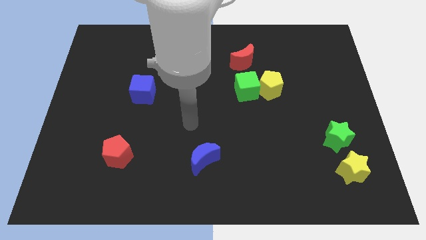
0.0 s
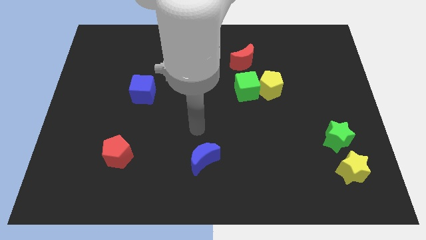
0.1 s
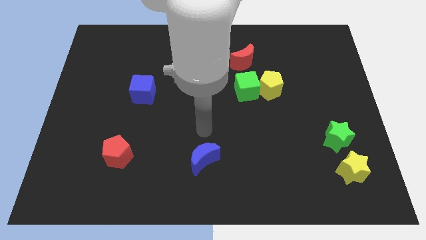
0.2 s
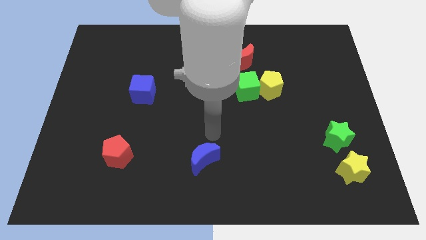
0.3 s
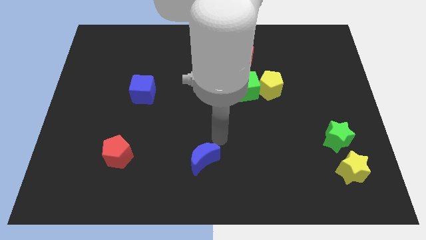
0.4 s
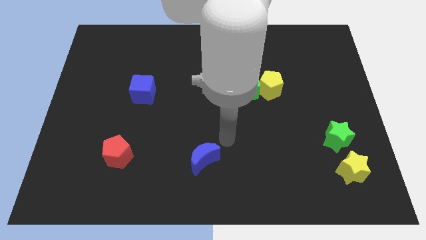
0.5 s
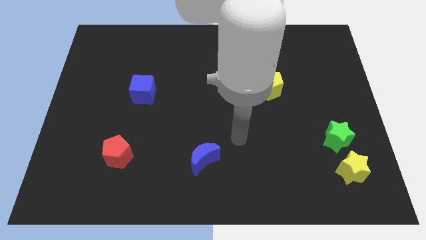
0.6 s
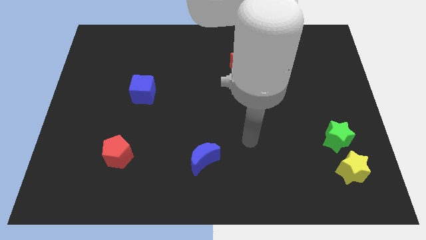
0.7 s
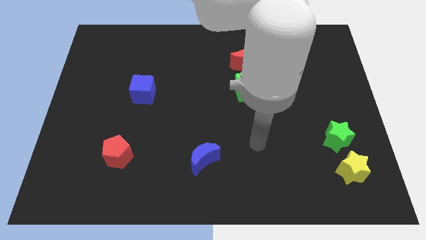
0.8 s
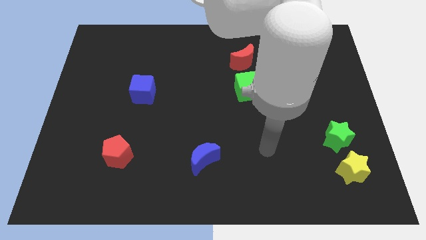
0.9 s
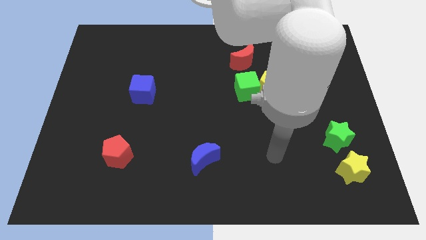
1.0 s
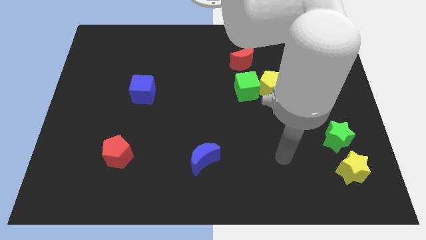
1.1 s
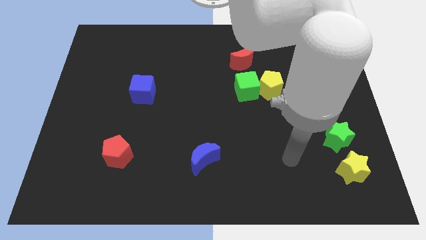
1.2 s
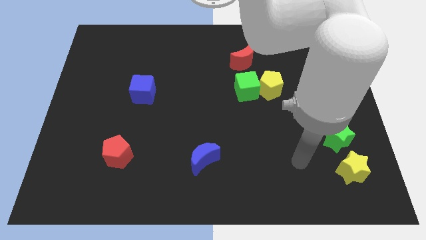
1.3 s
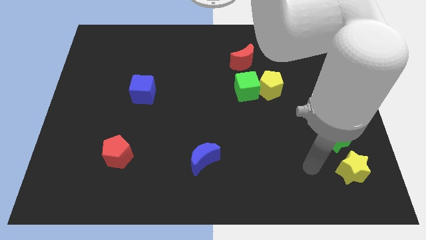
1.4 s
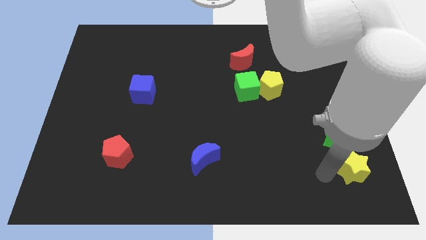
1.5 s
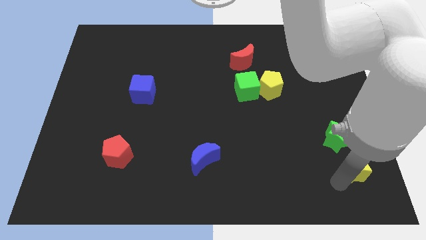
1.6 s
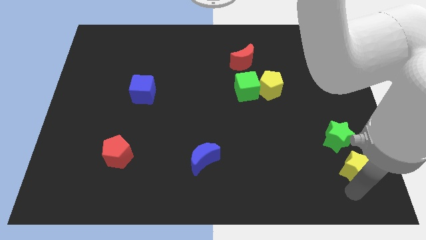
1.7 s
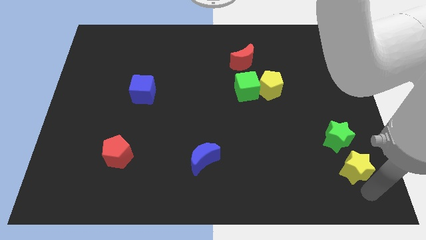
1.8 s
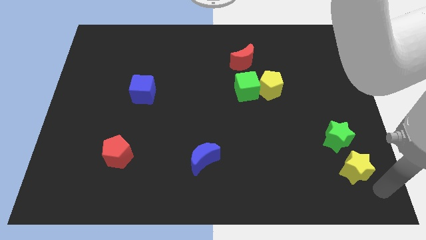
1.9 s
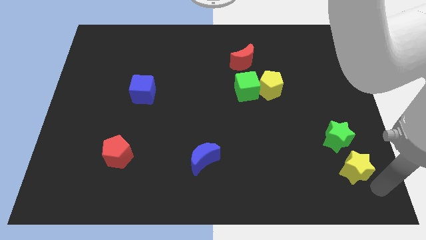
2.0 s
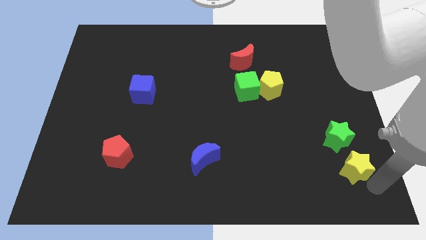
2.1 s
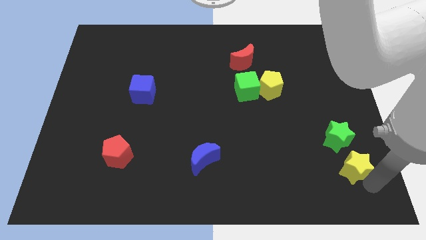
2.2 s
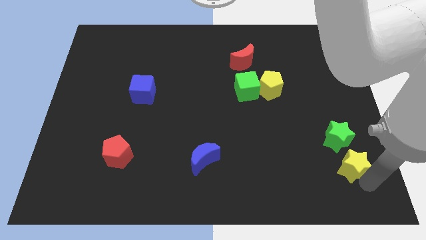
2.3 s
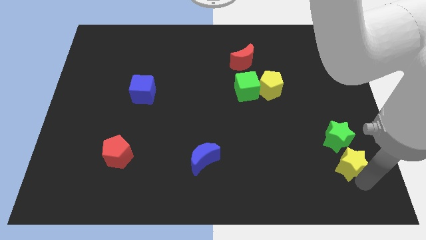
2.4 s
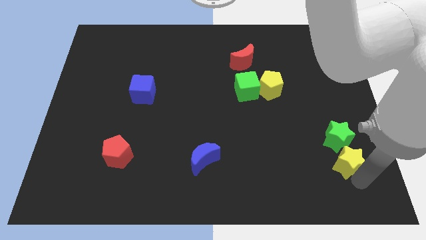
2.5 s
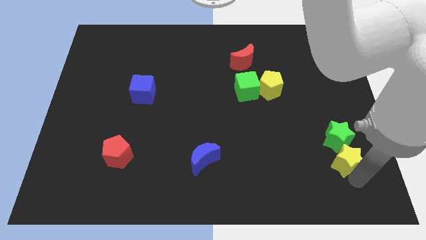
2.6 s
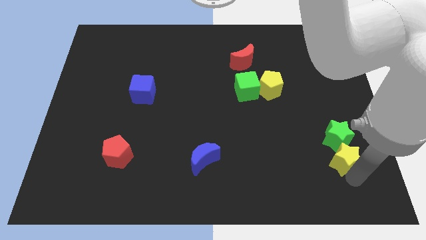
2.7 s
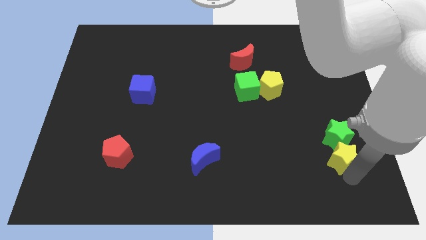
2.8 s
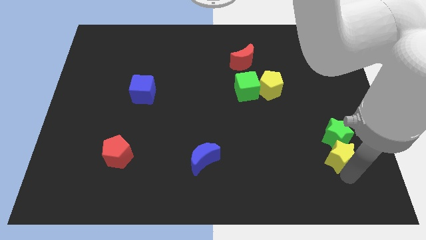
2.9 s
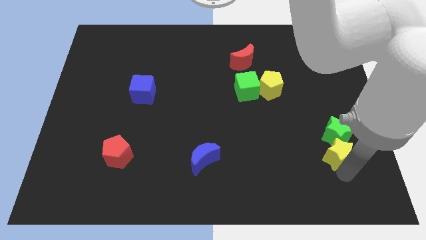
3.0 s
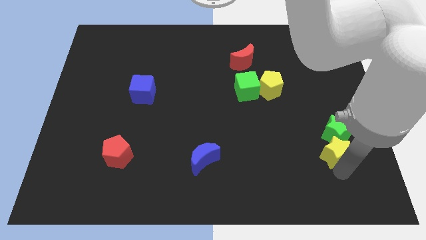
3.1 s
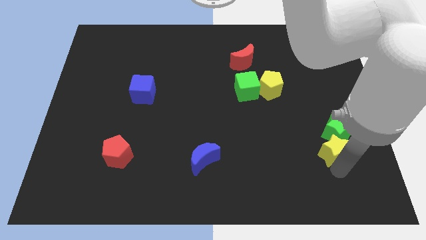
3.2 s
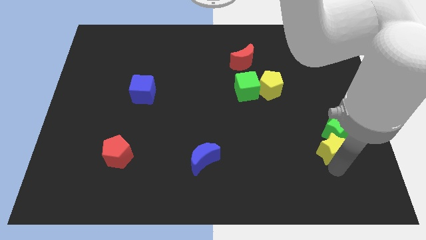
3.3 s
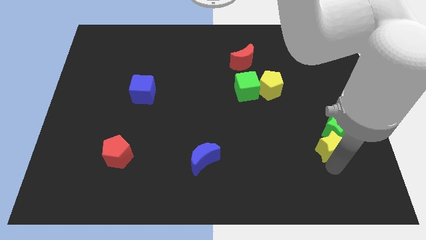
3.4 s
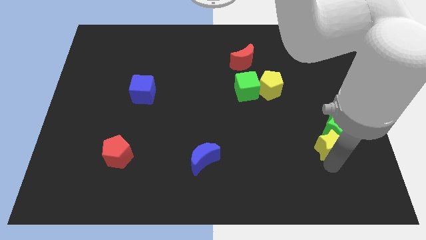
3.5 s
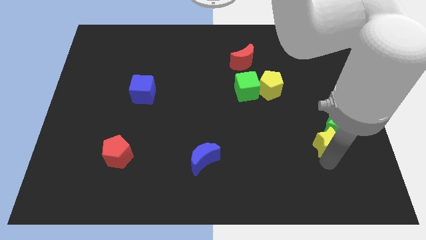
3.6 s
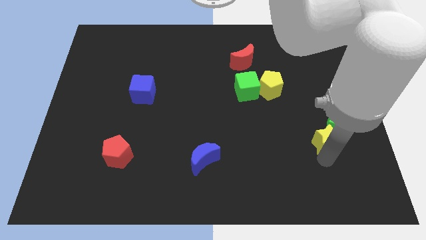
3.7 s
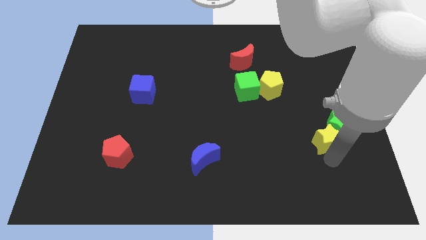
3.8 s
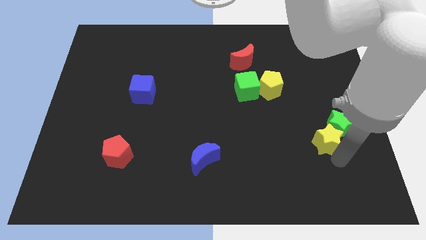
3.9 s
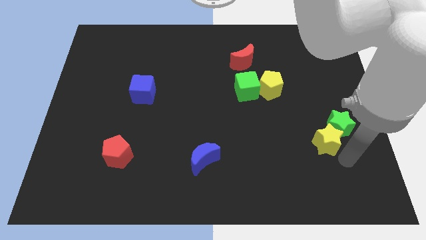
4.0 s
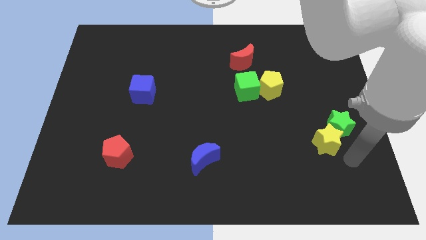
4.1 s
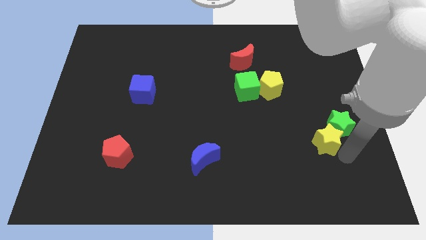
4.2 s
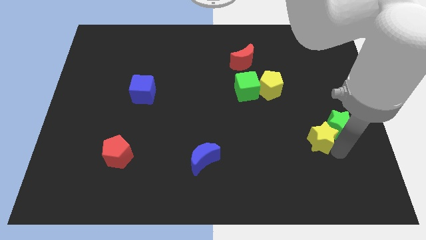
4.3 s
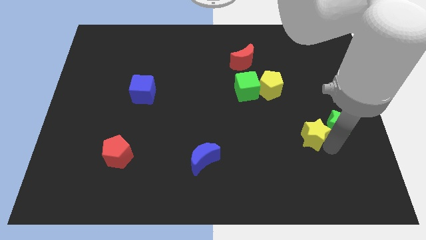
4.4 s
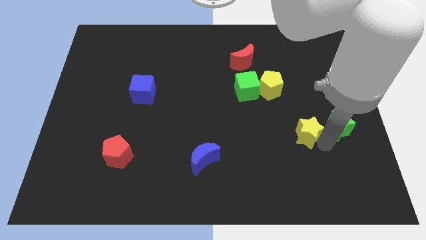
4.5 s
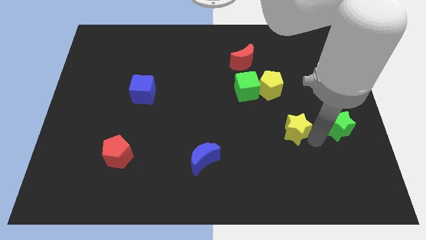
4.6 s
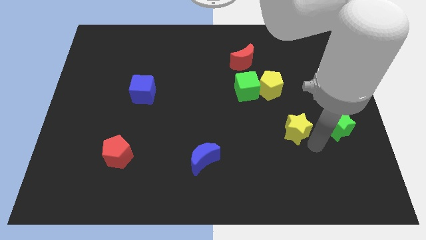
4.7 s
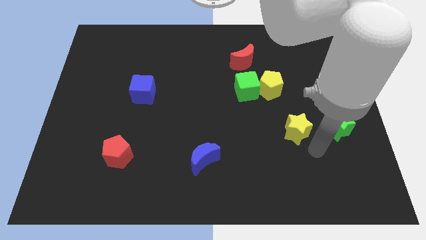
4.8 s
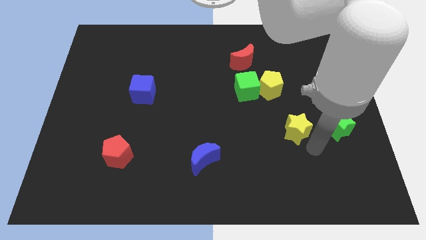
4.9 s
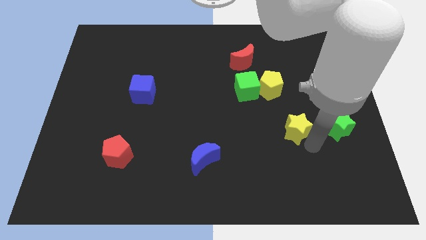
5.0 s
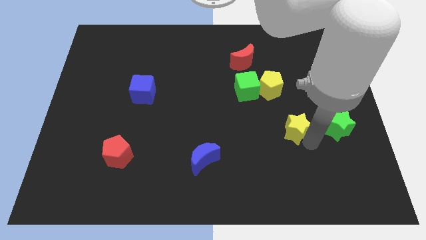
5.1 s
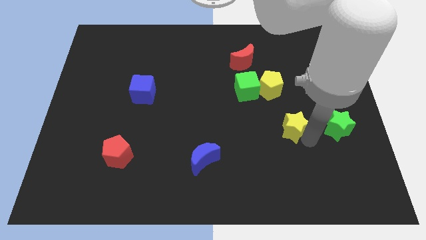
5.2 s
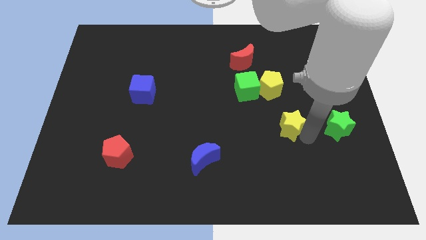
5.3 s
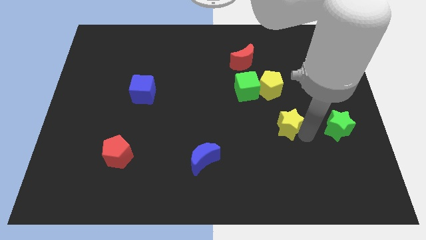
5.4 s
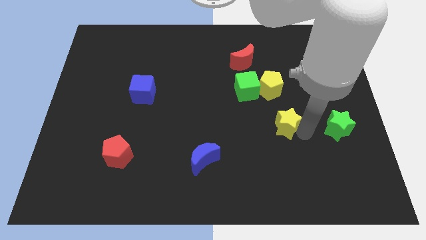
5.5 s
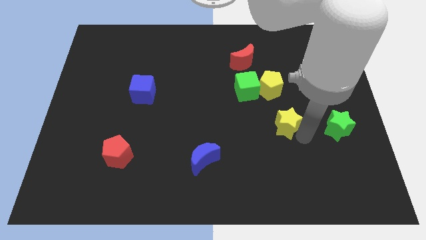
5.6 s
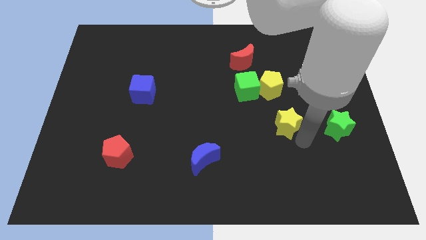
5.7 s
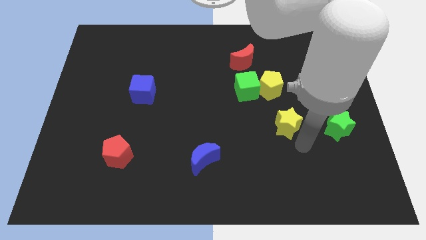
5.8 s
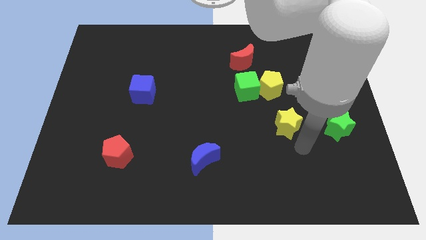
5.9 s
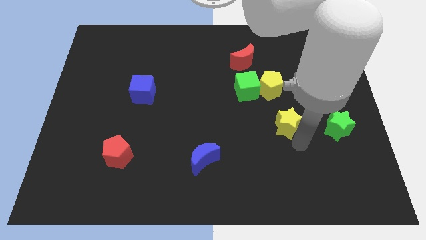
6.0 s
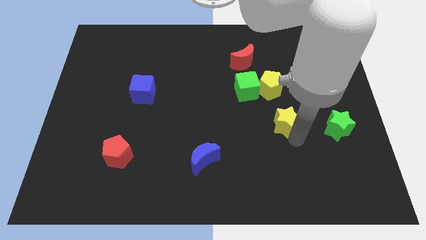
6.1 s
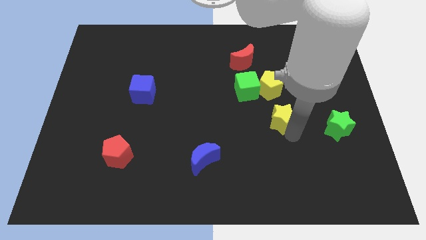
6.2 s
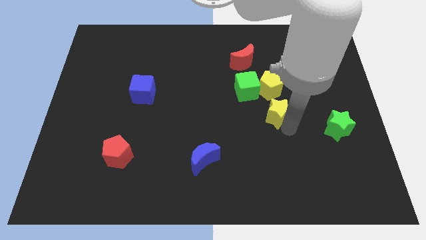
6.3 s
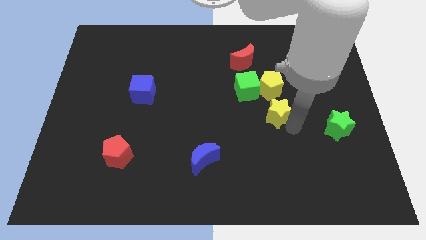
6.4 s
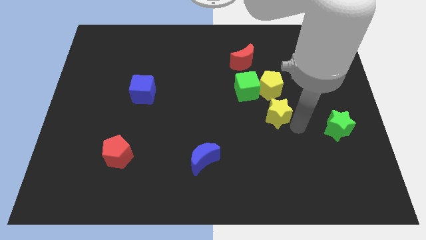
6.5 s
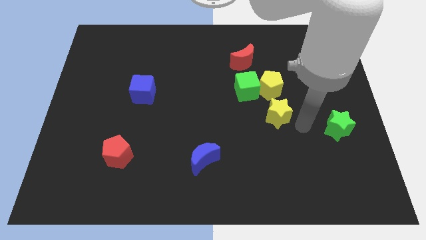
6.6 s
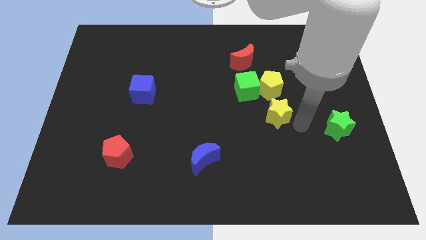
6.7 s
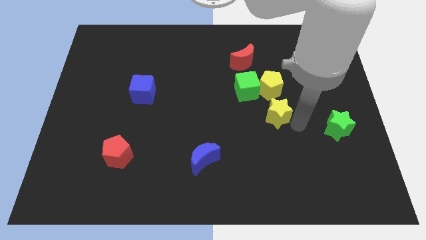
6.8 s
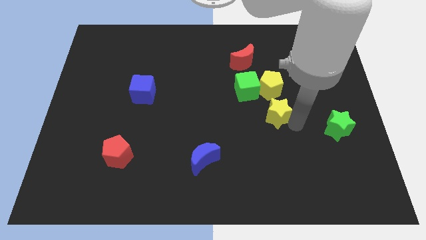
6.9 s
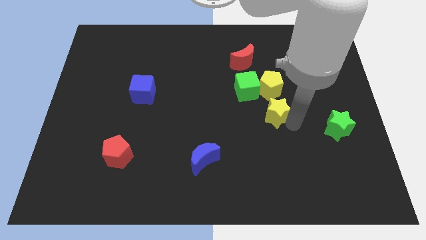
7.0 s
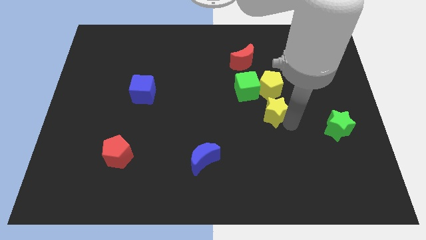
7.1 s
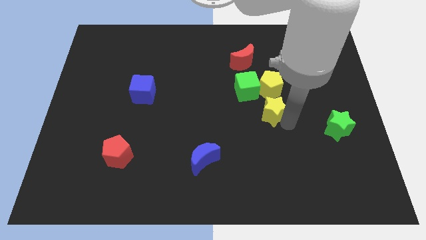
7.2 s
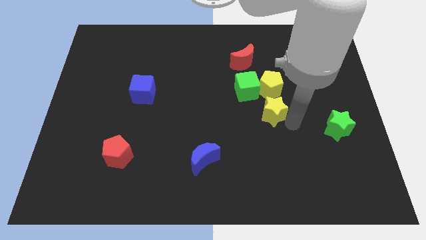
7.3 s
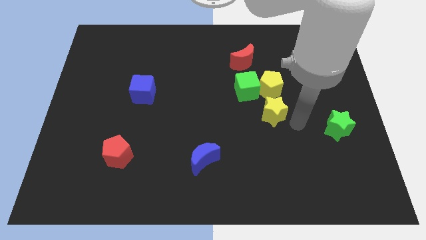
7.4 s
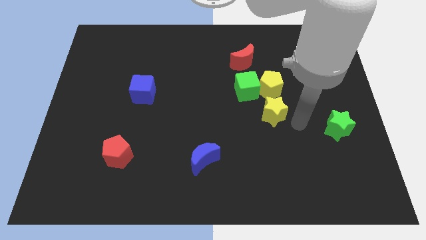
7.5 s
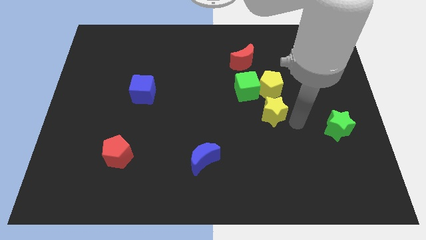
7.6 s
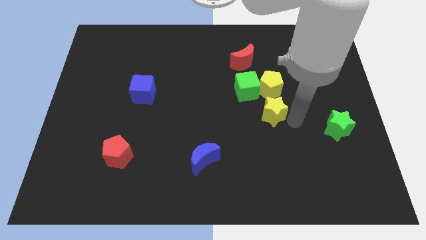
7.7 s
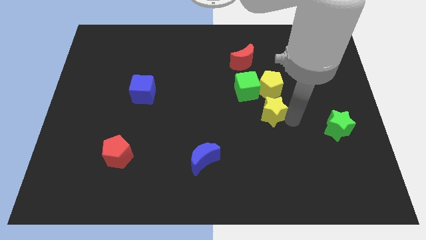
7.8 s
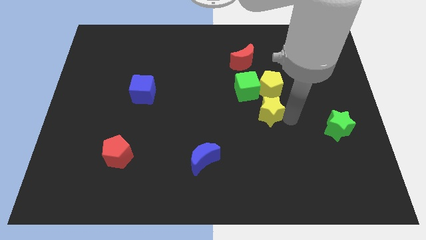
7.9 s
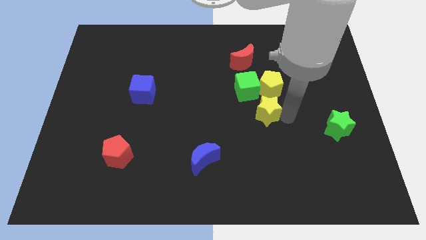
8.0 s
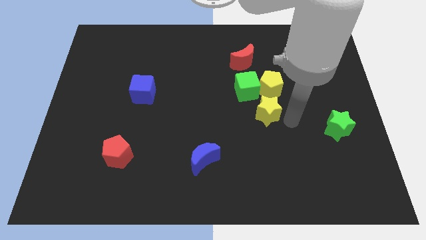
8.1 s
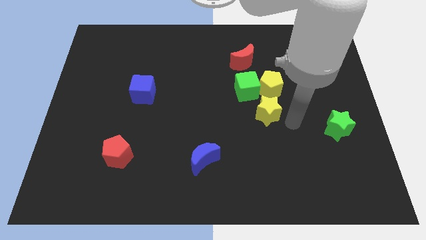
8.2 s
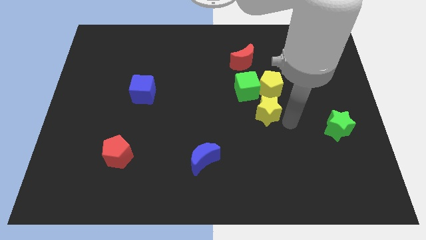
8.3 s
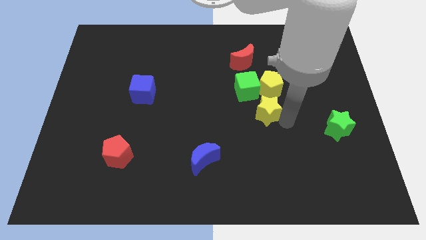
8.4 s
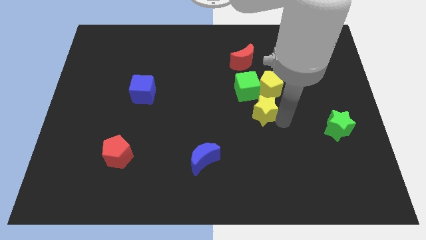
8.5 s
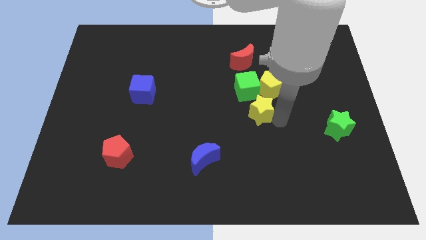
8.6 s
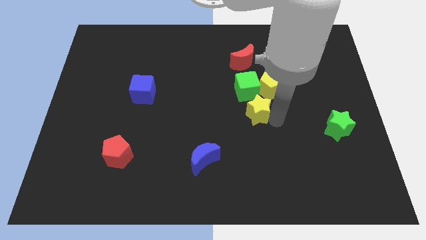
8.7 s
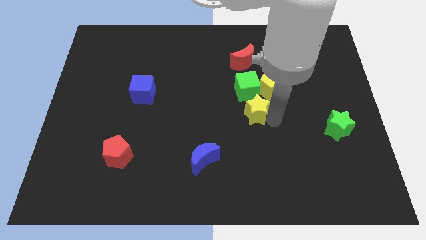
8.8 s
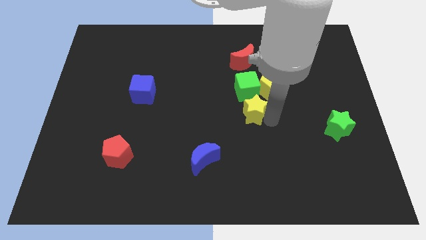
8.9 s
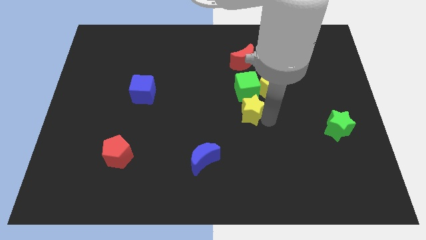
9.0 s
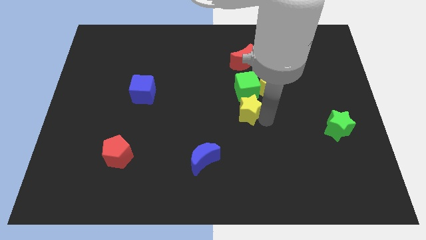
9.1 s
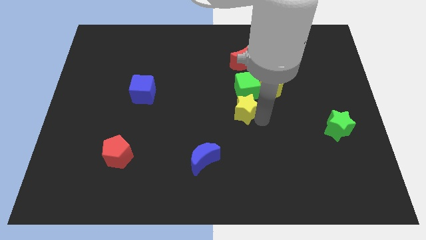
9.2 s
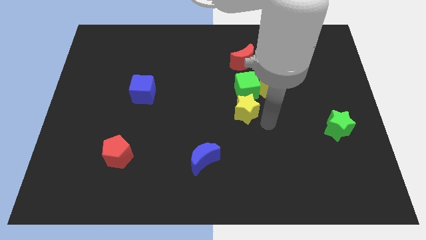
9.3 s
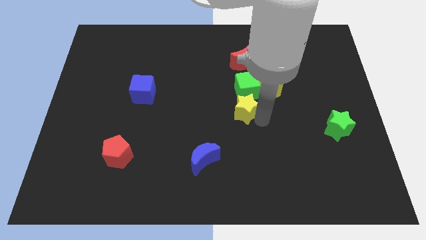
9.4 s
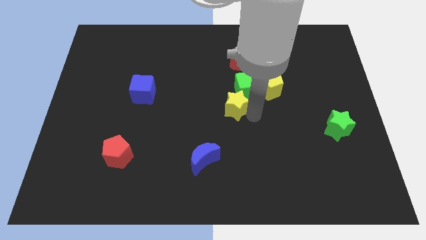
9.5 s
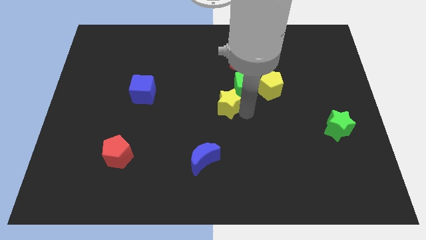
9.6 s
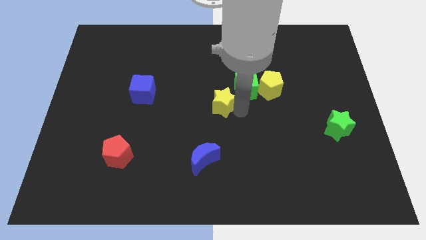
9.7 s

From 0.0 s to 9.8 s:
move the yellow star left of the green cube
